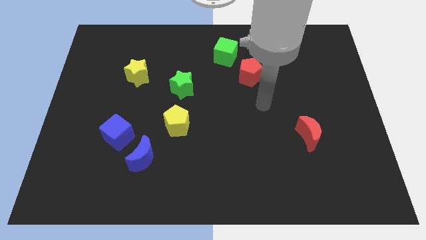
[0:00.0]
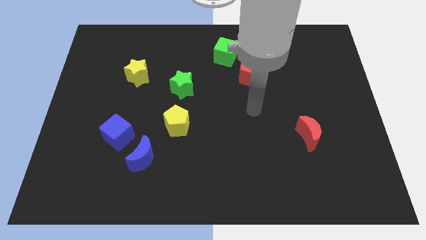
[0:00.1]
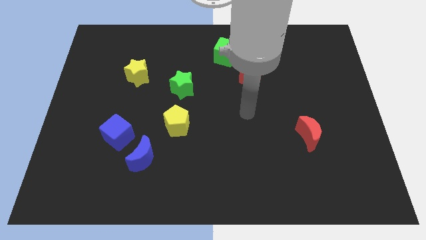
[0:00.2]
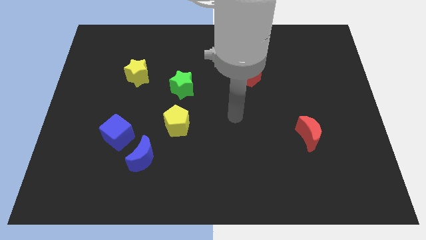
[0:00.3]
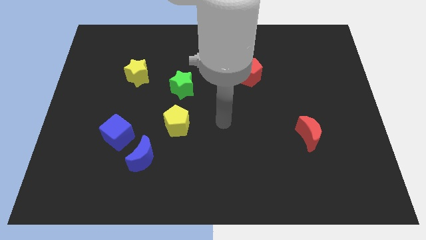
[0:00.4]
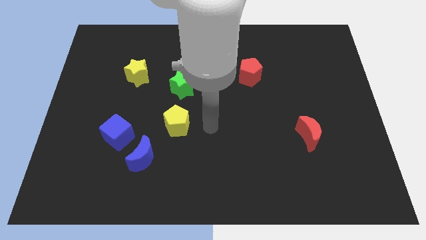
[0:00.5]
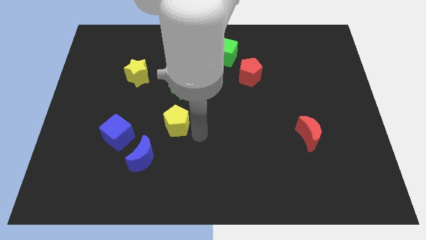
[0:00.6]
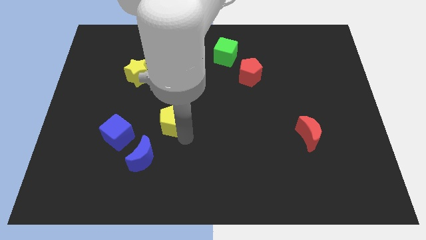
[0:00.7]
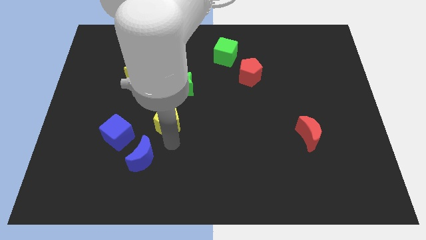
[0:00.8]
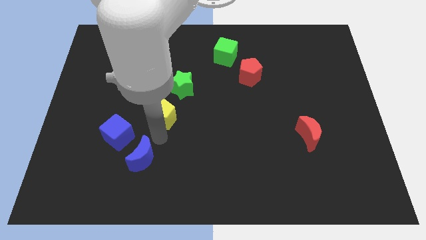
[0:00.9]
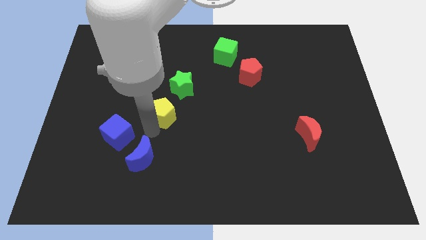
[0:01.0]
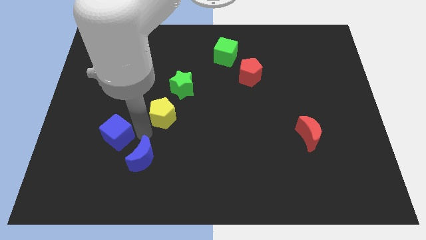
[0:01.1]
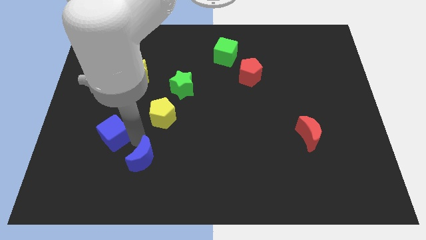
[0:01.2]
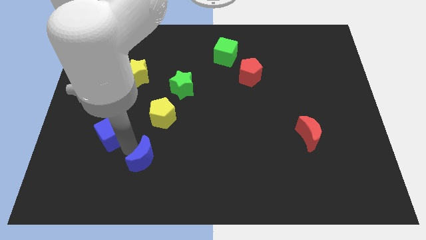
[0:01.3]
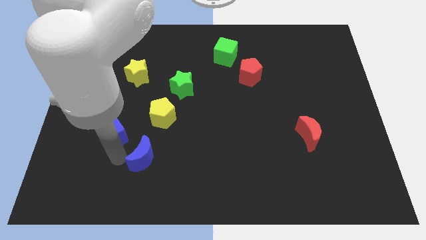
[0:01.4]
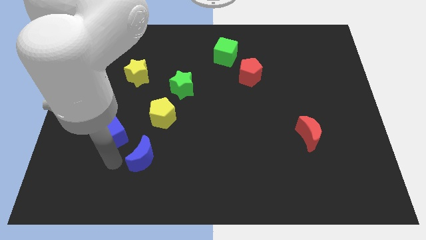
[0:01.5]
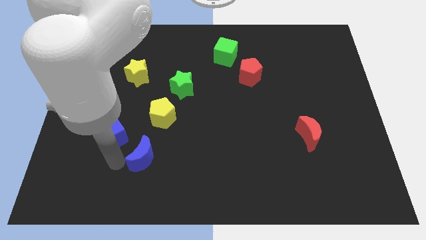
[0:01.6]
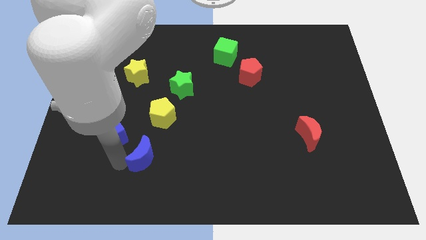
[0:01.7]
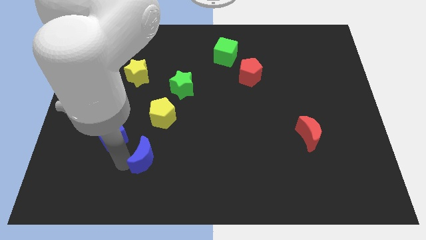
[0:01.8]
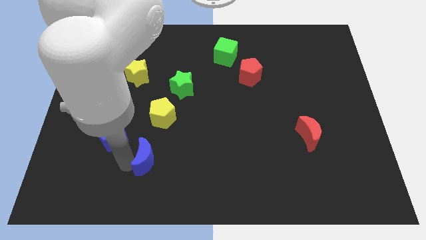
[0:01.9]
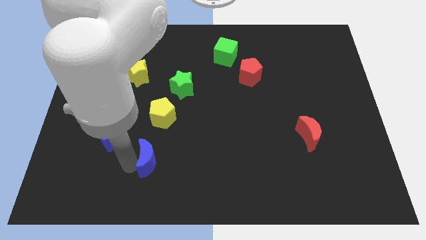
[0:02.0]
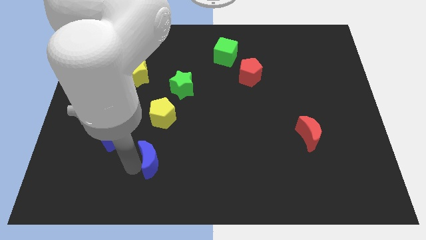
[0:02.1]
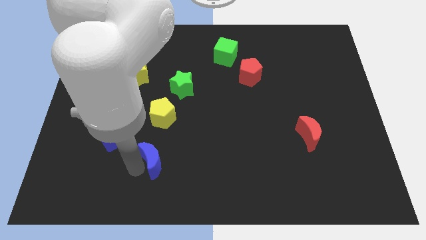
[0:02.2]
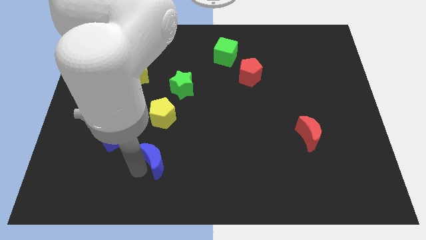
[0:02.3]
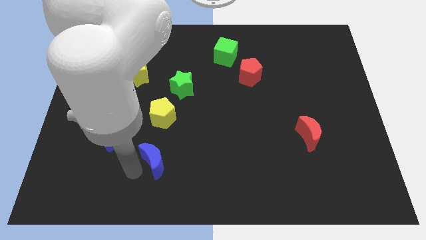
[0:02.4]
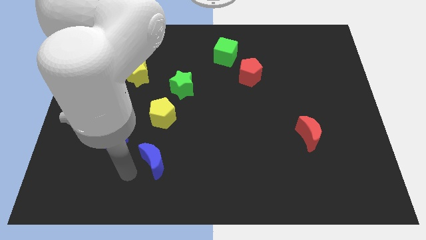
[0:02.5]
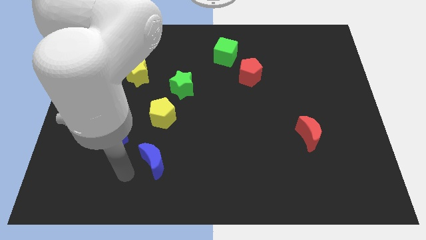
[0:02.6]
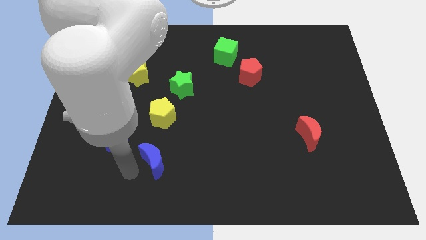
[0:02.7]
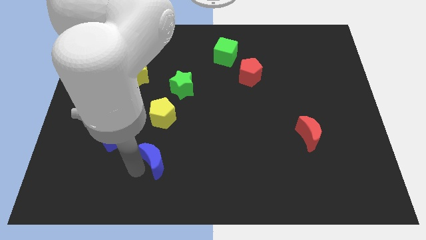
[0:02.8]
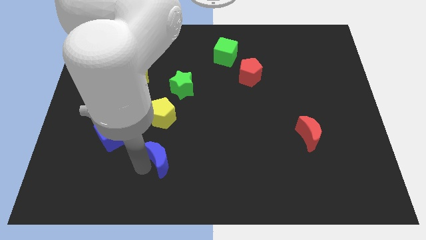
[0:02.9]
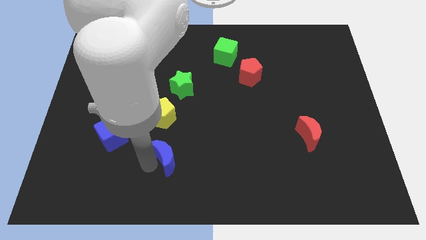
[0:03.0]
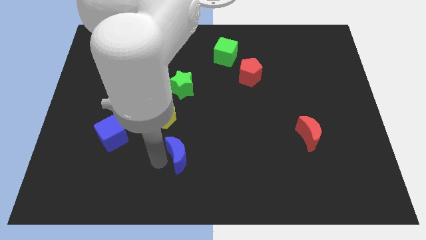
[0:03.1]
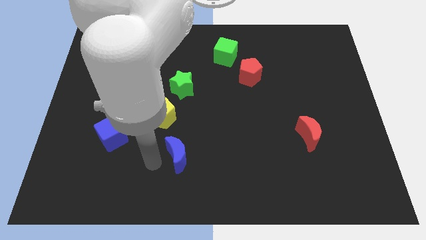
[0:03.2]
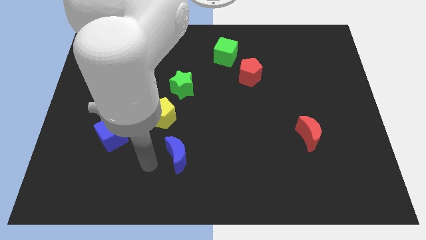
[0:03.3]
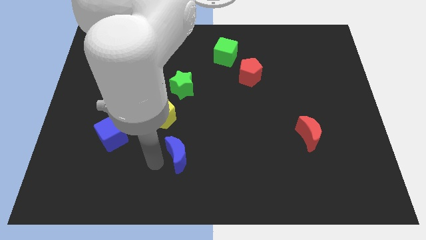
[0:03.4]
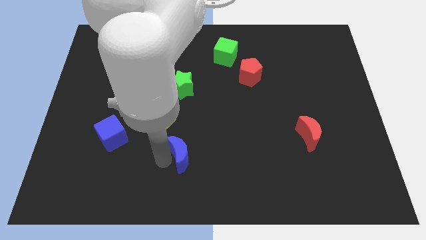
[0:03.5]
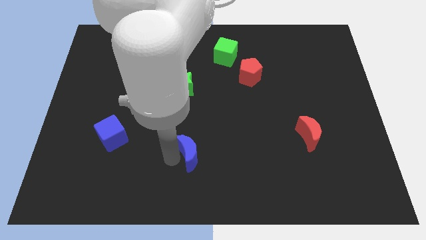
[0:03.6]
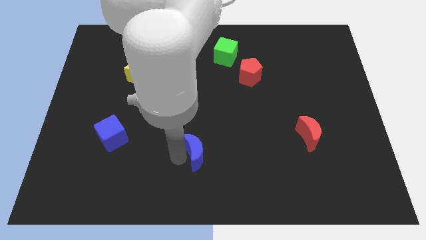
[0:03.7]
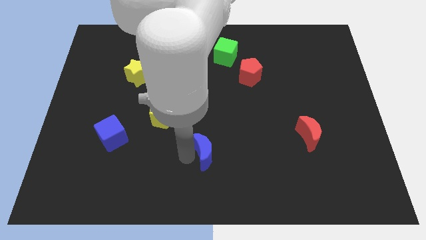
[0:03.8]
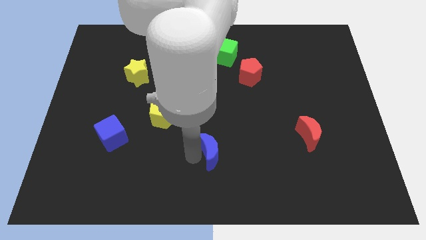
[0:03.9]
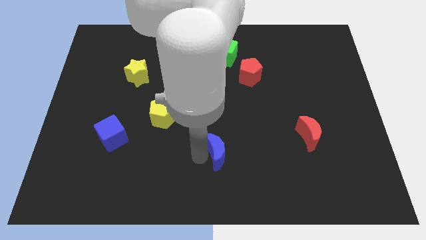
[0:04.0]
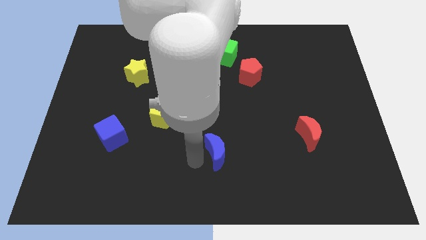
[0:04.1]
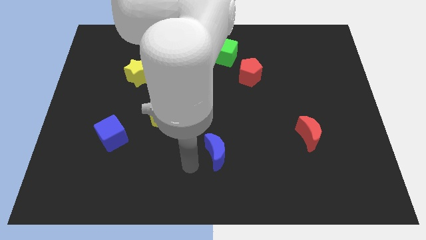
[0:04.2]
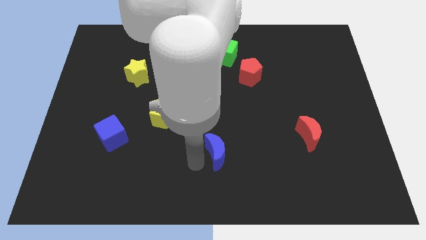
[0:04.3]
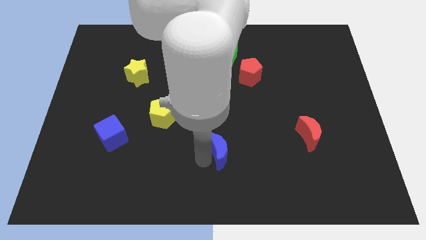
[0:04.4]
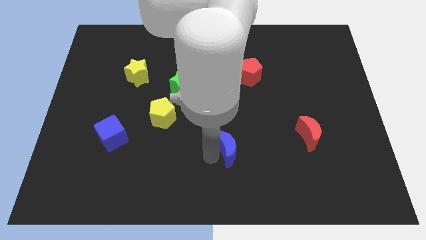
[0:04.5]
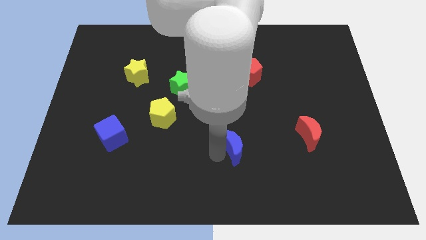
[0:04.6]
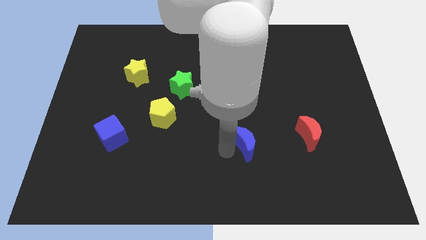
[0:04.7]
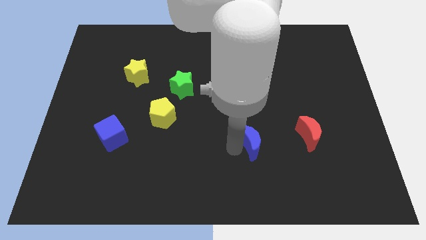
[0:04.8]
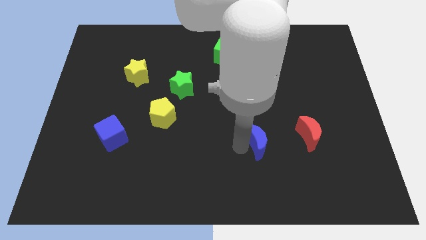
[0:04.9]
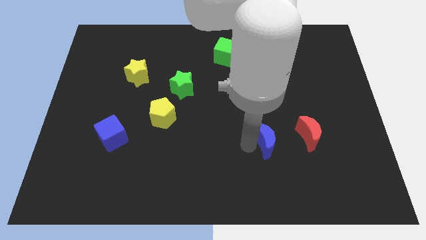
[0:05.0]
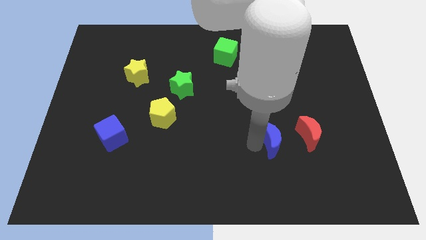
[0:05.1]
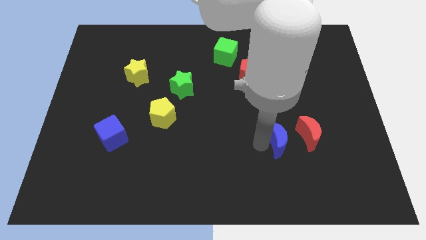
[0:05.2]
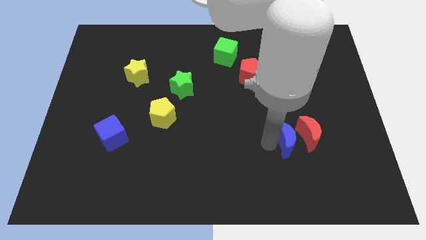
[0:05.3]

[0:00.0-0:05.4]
slide the blue moon close to the red moon

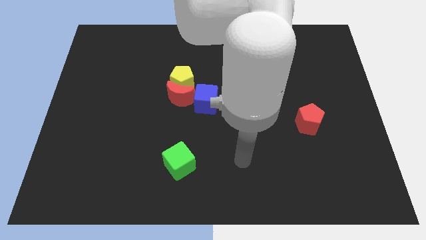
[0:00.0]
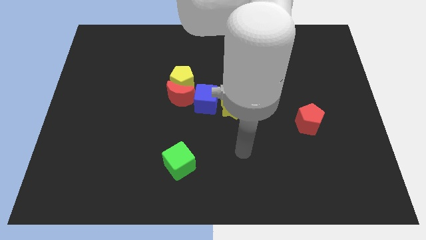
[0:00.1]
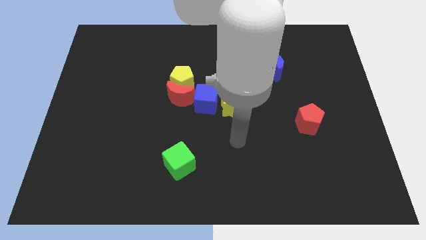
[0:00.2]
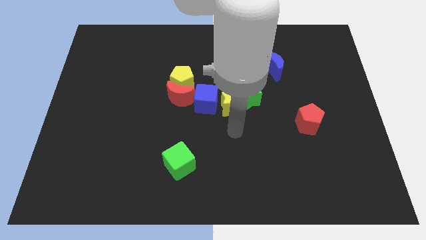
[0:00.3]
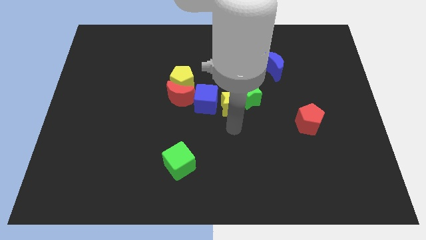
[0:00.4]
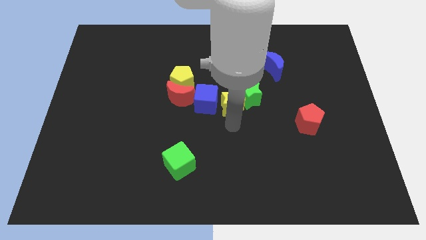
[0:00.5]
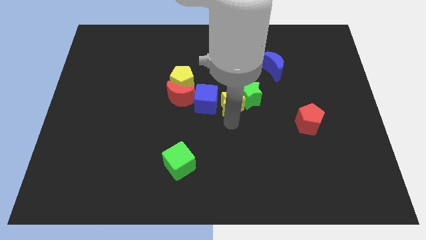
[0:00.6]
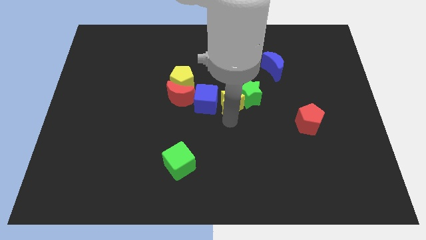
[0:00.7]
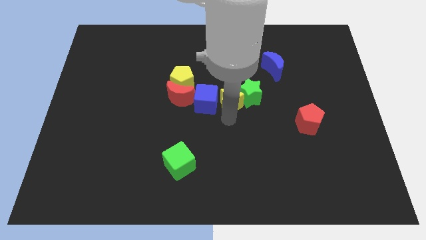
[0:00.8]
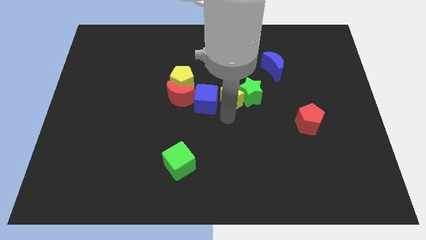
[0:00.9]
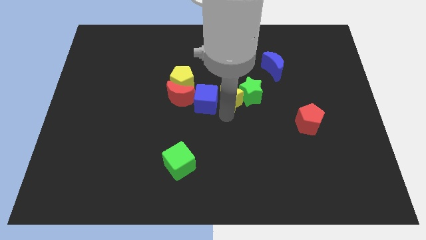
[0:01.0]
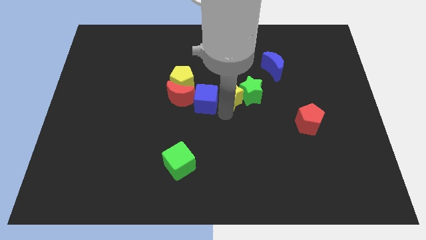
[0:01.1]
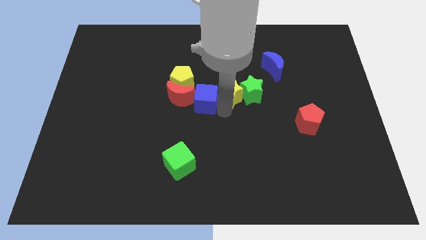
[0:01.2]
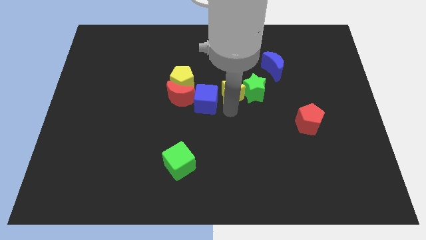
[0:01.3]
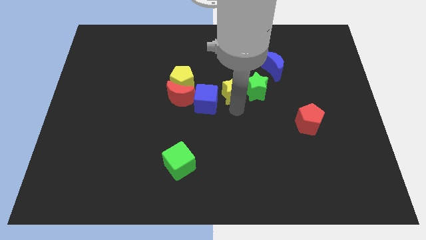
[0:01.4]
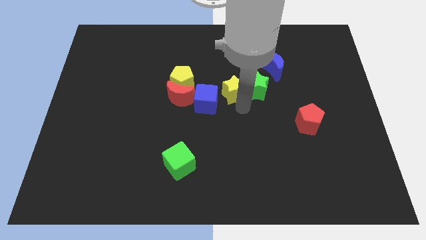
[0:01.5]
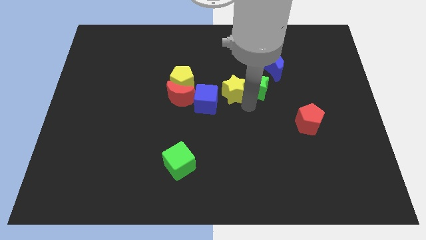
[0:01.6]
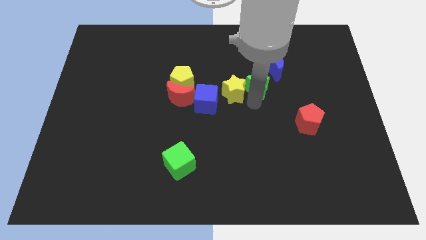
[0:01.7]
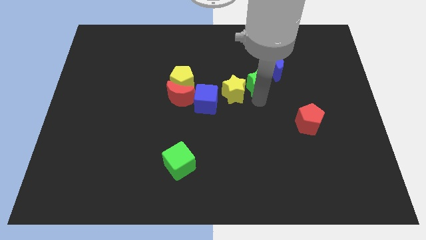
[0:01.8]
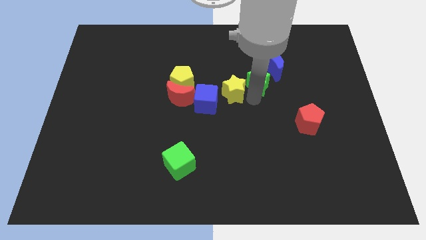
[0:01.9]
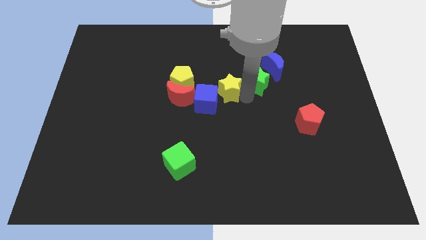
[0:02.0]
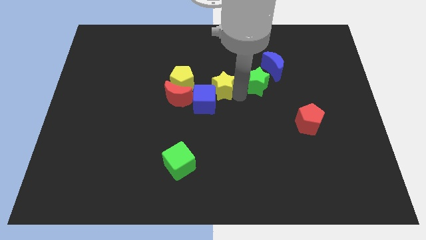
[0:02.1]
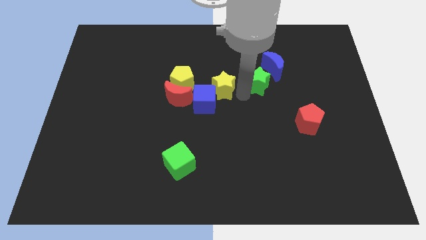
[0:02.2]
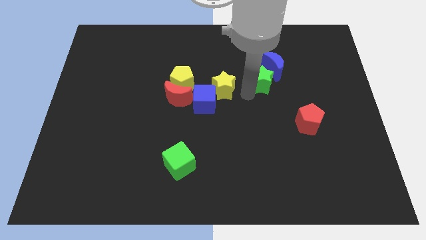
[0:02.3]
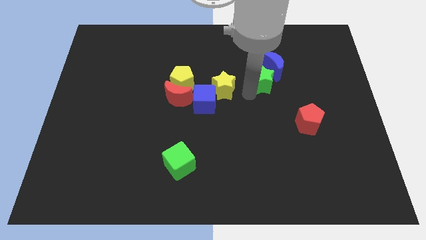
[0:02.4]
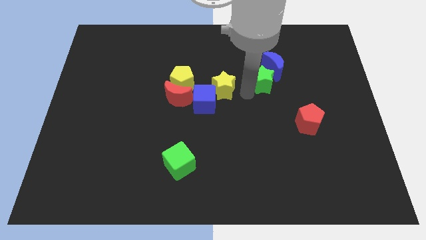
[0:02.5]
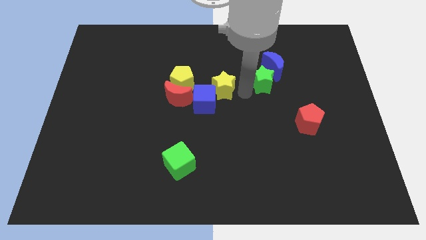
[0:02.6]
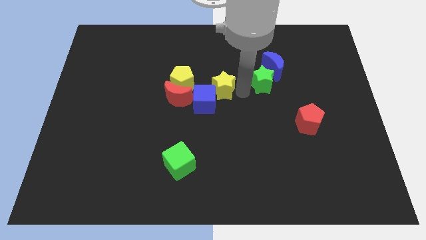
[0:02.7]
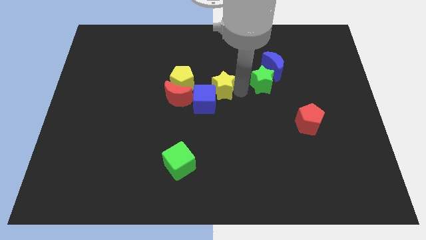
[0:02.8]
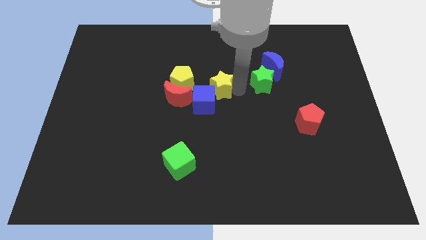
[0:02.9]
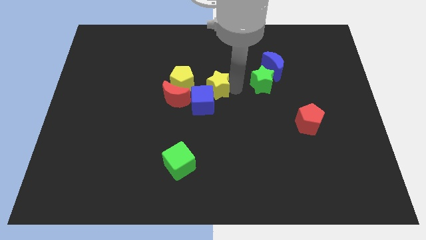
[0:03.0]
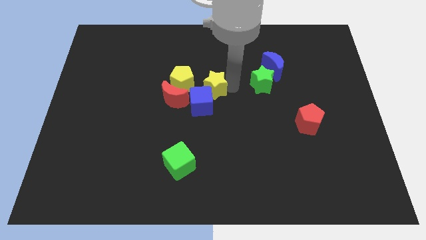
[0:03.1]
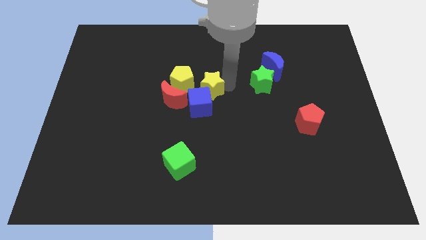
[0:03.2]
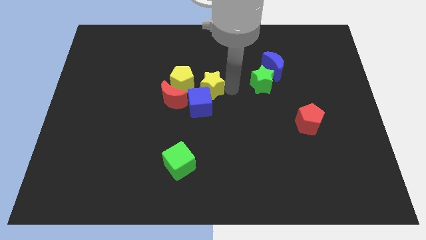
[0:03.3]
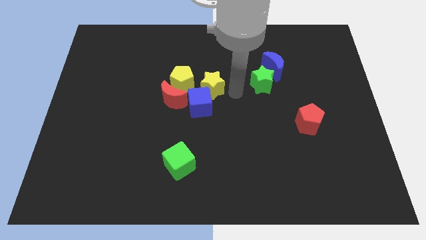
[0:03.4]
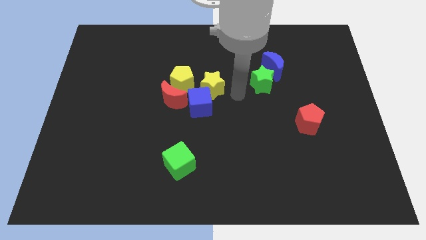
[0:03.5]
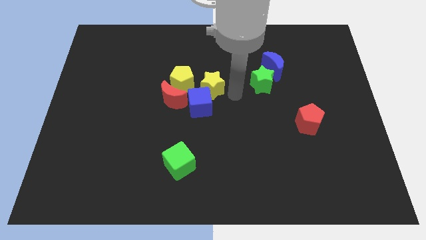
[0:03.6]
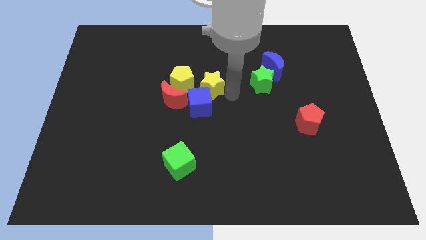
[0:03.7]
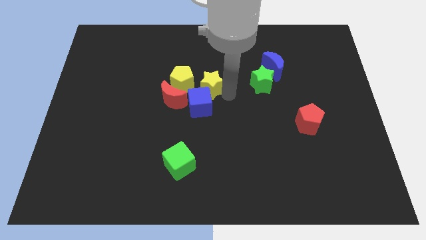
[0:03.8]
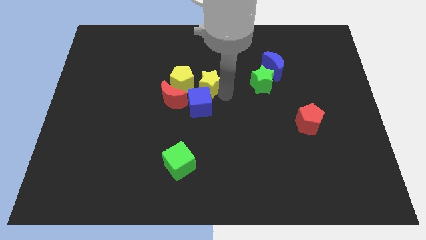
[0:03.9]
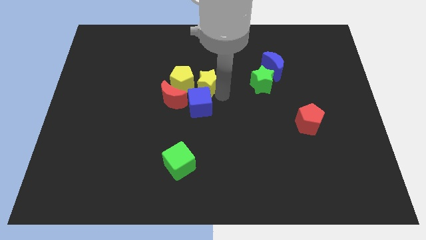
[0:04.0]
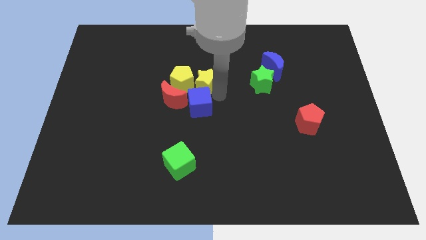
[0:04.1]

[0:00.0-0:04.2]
slide the yellow star to the yellow pentagon
